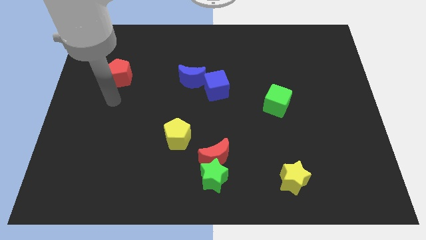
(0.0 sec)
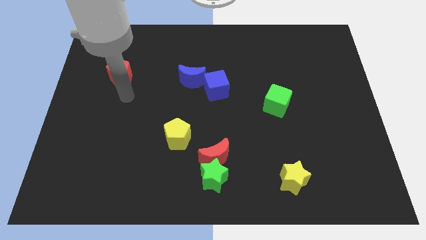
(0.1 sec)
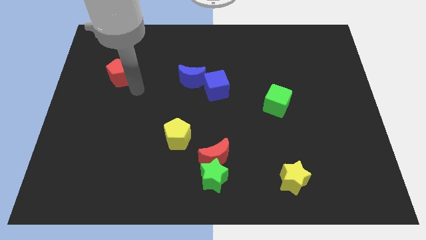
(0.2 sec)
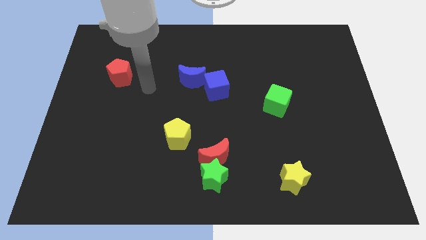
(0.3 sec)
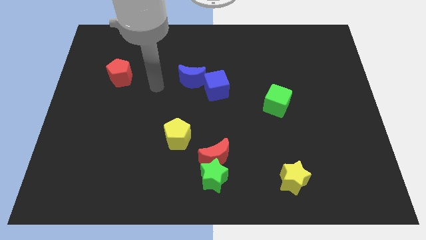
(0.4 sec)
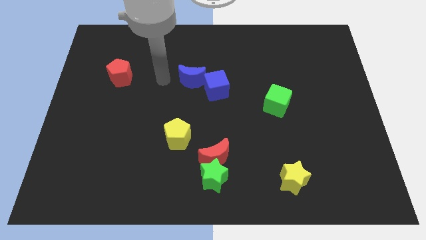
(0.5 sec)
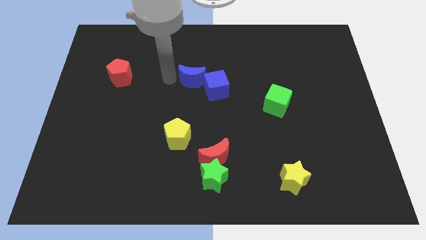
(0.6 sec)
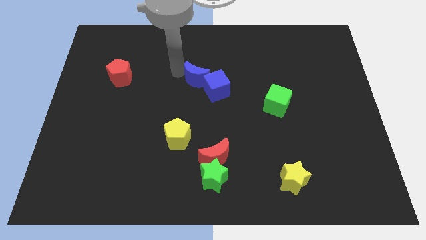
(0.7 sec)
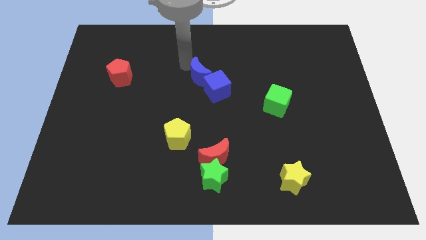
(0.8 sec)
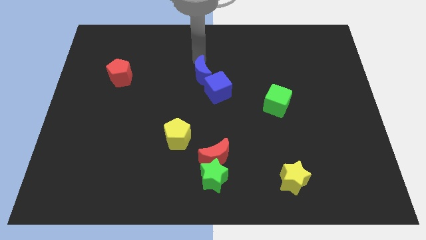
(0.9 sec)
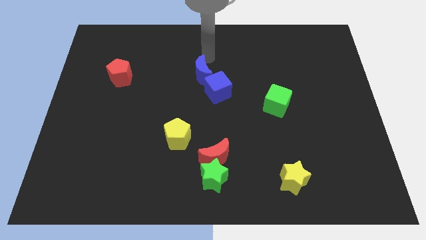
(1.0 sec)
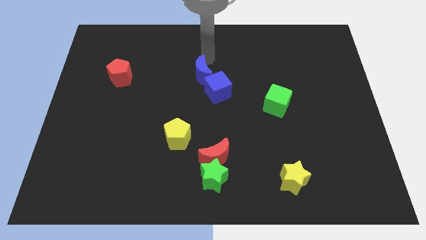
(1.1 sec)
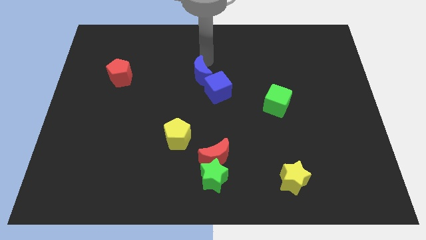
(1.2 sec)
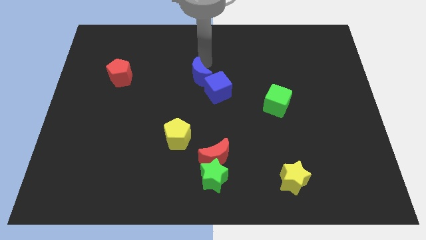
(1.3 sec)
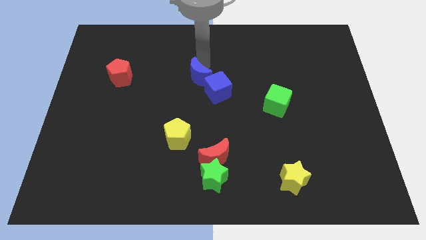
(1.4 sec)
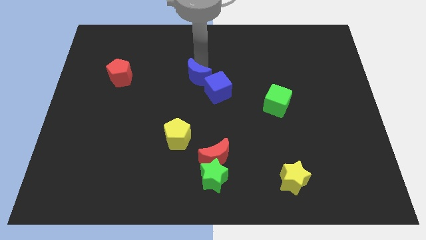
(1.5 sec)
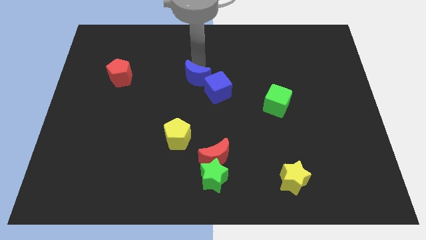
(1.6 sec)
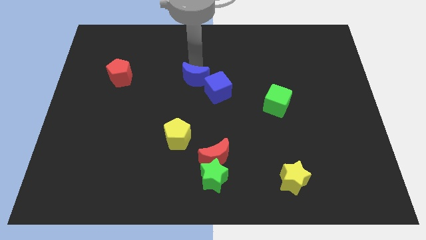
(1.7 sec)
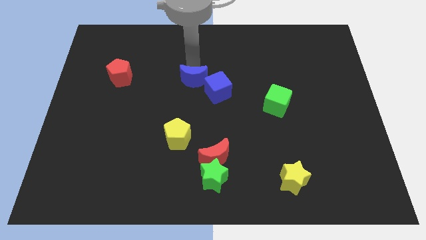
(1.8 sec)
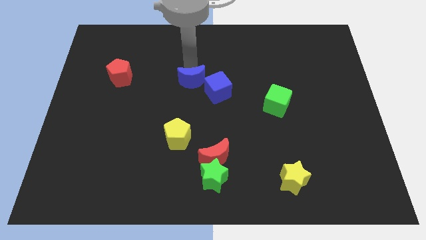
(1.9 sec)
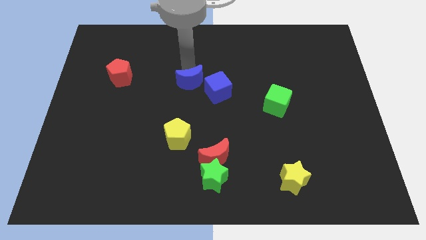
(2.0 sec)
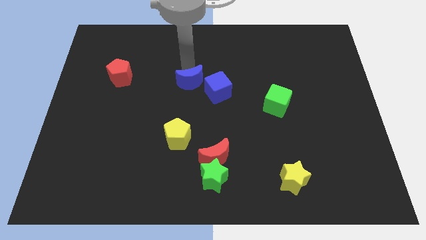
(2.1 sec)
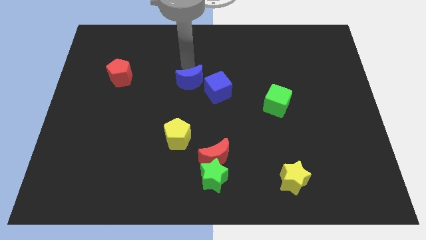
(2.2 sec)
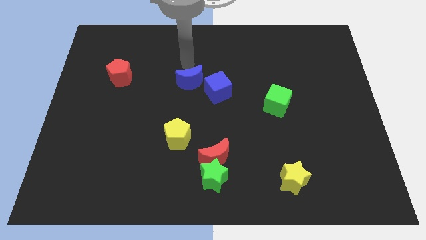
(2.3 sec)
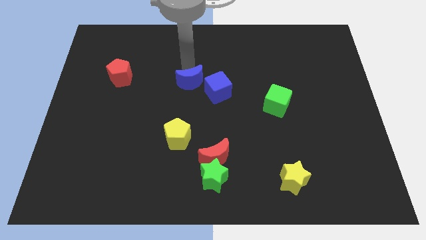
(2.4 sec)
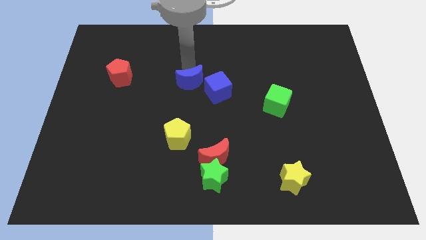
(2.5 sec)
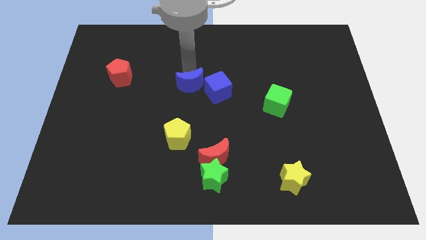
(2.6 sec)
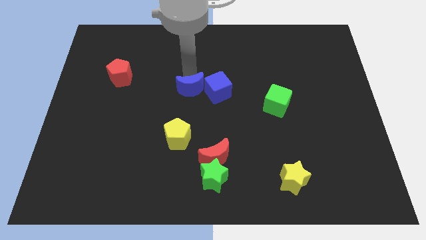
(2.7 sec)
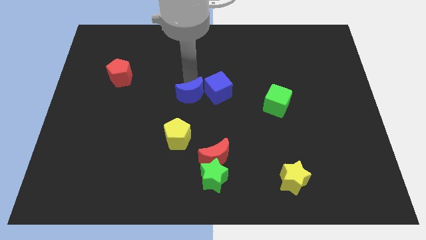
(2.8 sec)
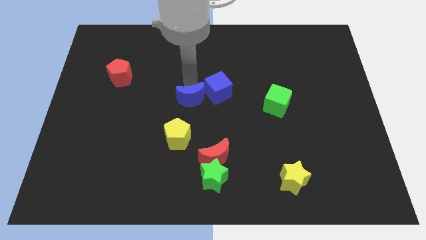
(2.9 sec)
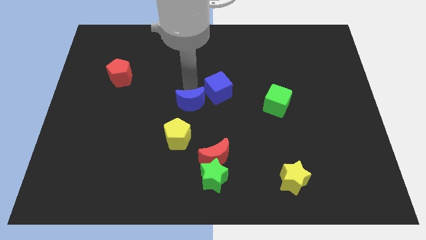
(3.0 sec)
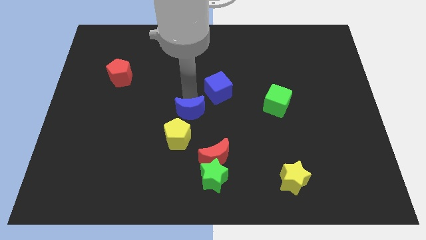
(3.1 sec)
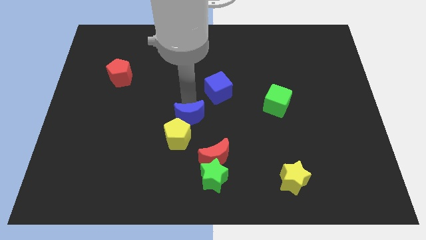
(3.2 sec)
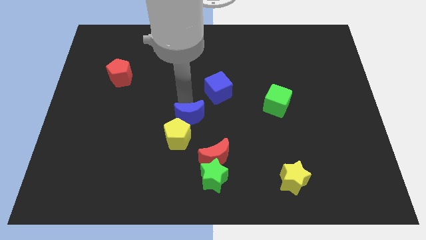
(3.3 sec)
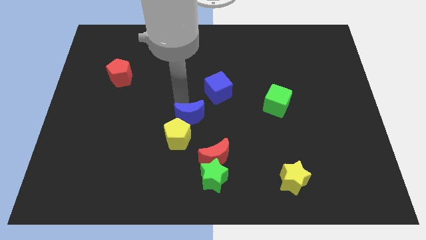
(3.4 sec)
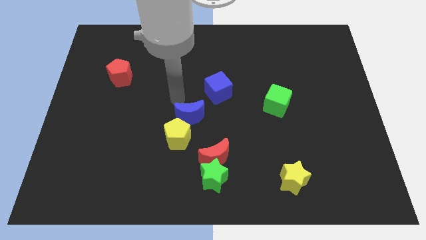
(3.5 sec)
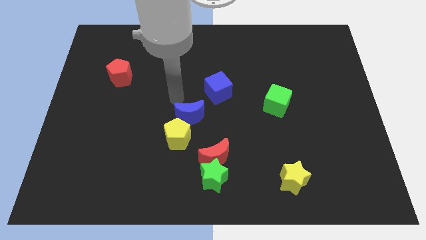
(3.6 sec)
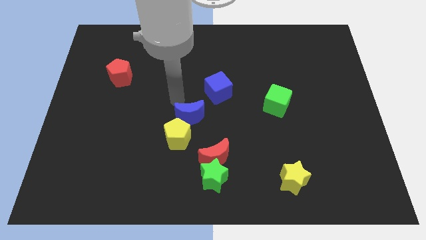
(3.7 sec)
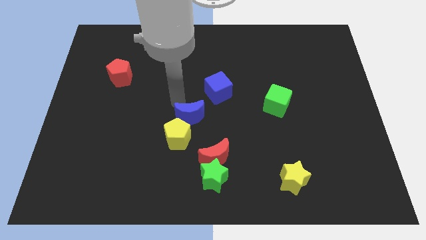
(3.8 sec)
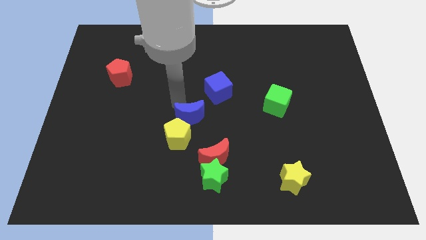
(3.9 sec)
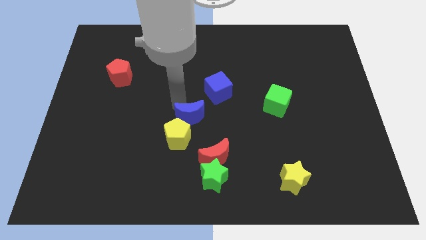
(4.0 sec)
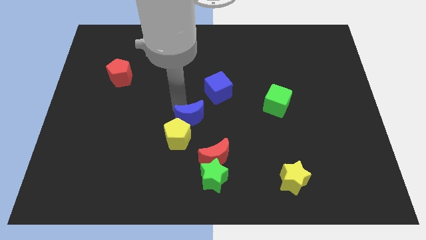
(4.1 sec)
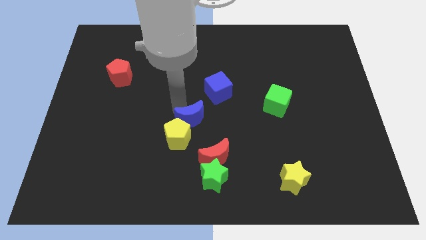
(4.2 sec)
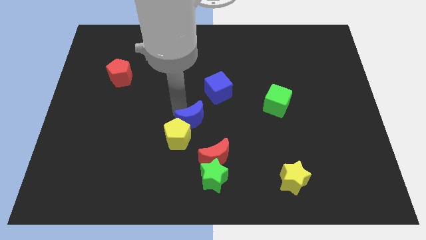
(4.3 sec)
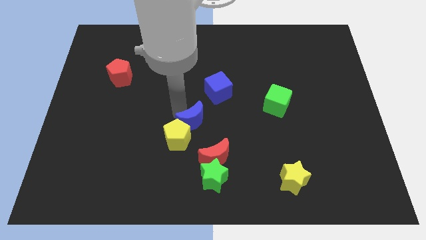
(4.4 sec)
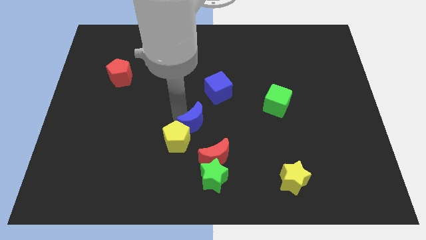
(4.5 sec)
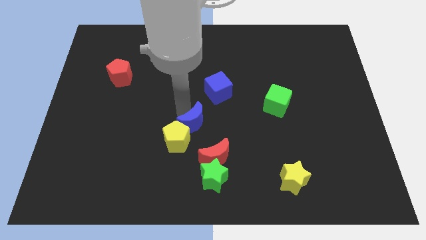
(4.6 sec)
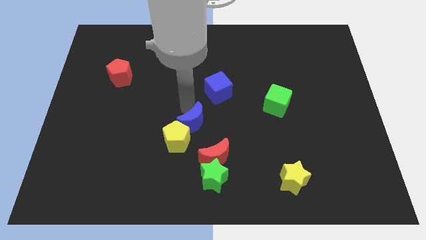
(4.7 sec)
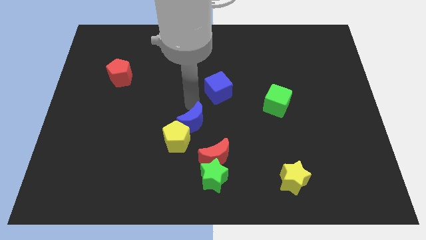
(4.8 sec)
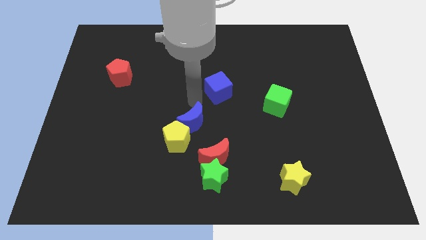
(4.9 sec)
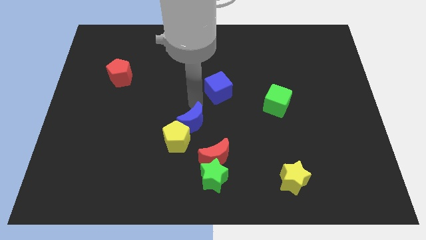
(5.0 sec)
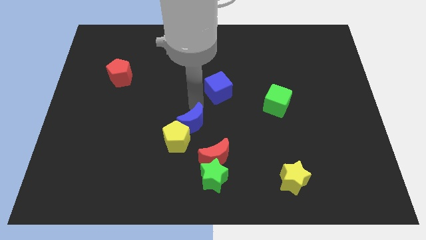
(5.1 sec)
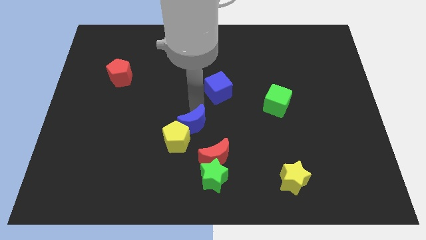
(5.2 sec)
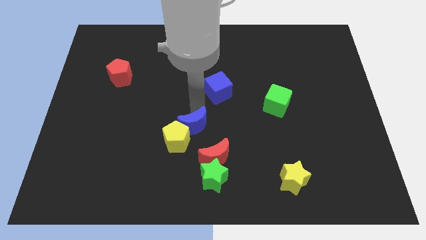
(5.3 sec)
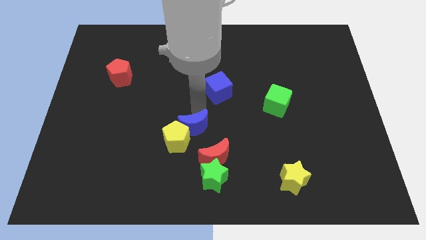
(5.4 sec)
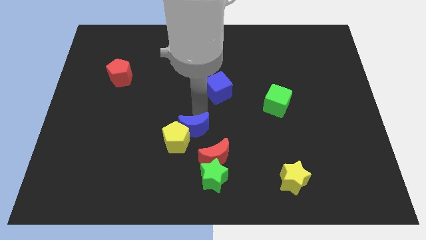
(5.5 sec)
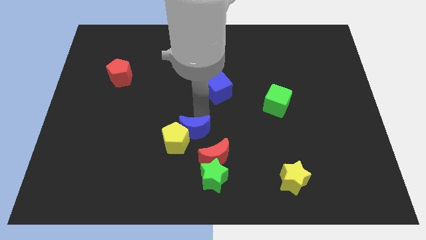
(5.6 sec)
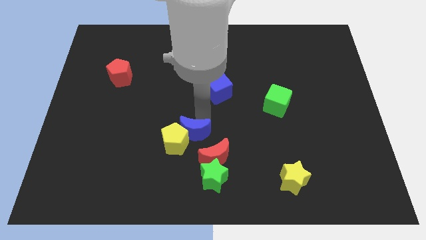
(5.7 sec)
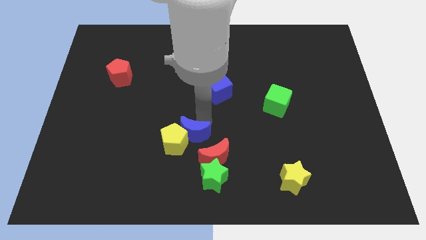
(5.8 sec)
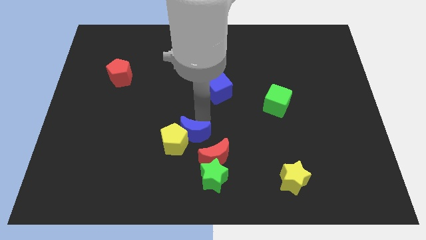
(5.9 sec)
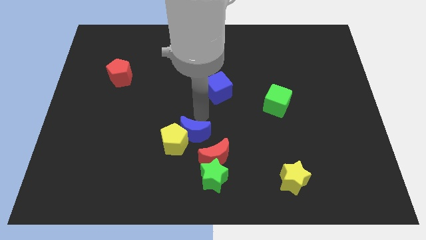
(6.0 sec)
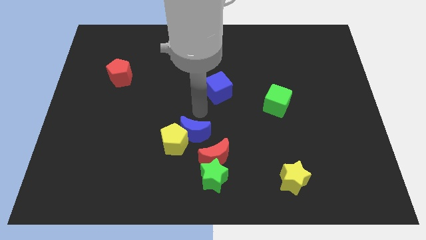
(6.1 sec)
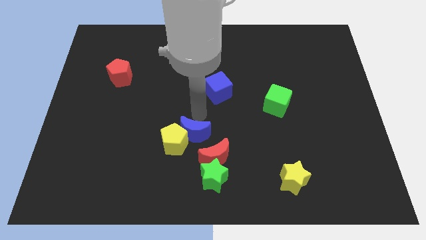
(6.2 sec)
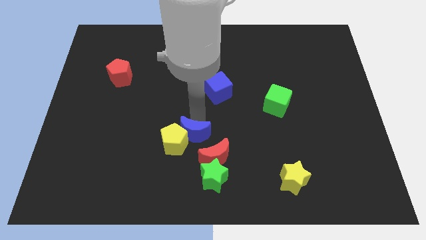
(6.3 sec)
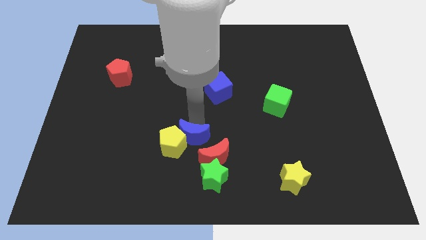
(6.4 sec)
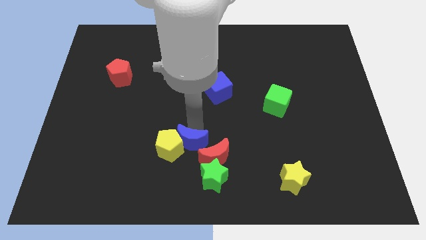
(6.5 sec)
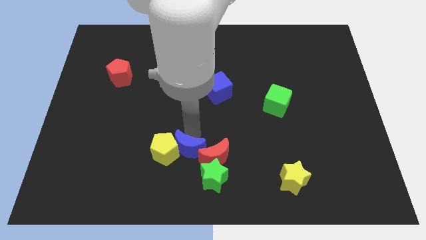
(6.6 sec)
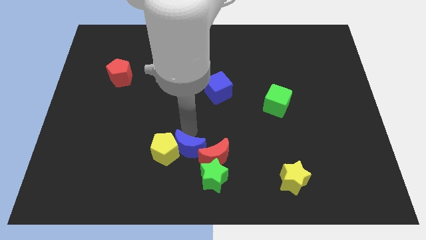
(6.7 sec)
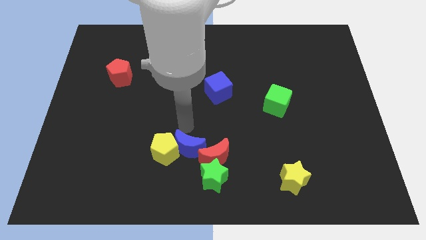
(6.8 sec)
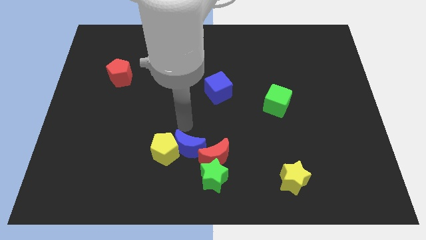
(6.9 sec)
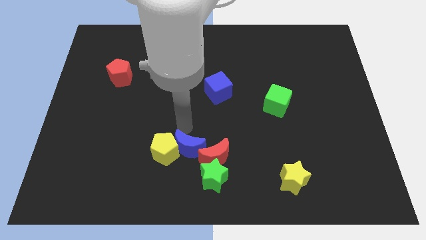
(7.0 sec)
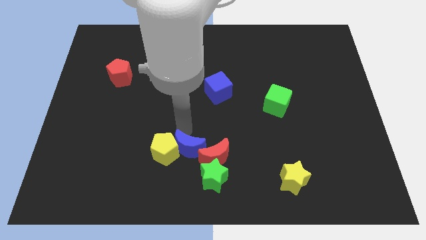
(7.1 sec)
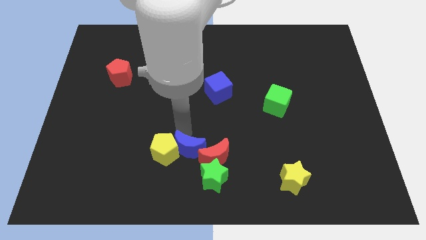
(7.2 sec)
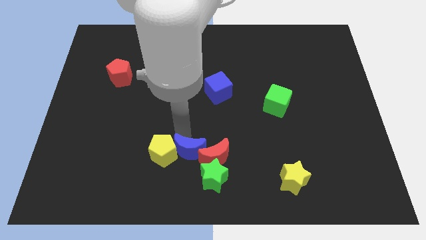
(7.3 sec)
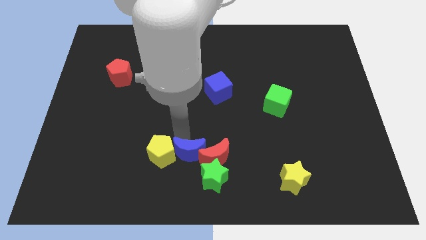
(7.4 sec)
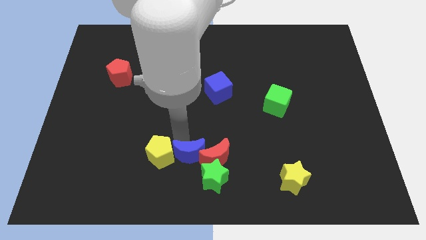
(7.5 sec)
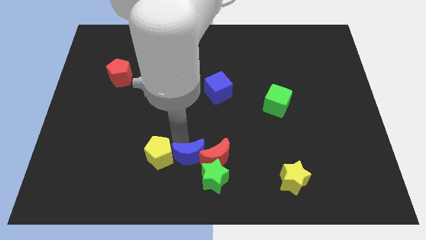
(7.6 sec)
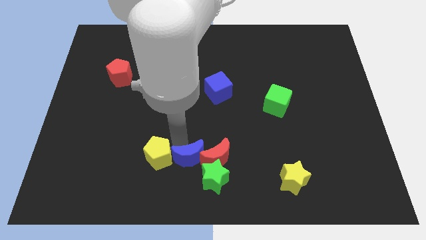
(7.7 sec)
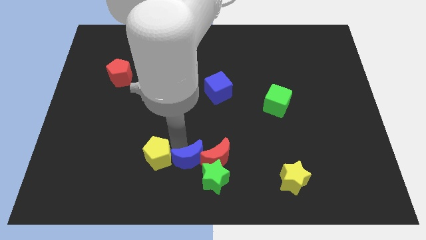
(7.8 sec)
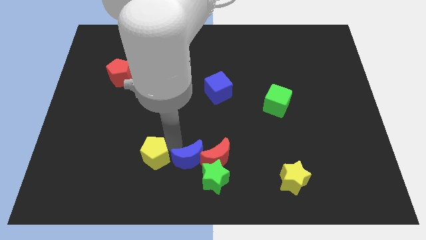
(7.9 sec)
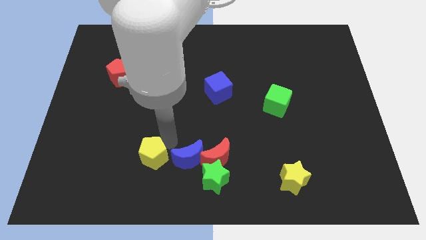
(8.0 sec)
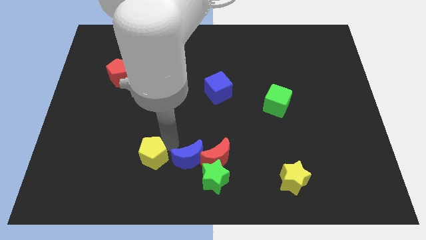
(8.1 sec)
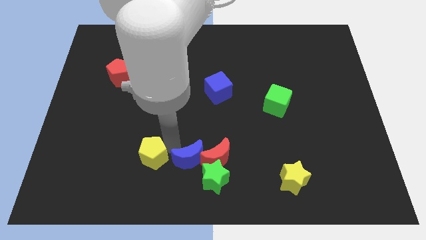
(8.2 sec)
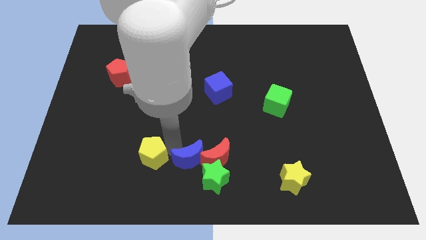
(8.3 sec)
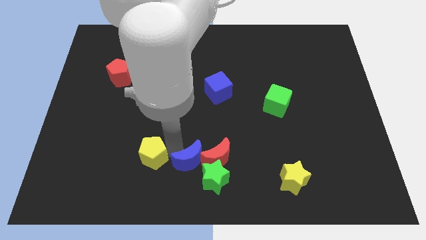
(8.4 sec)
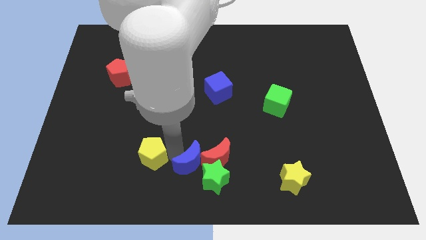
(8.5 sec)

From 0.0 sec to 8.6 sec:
put the blue moon close to the green star
